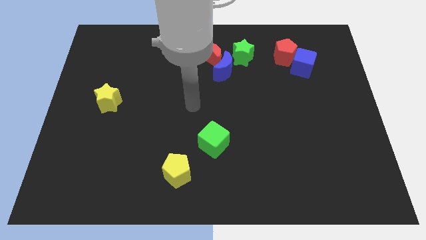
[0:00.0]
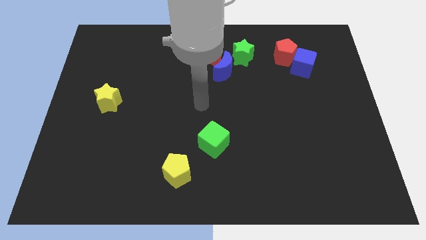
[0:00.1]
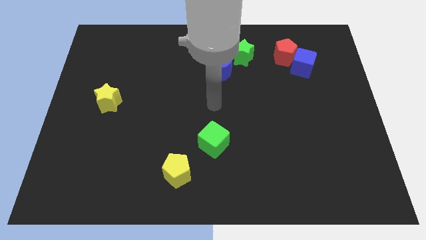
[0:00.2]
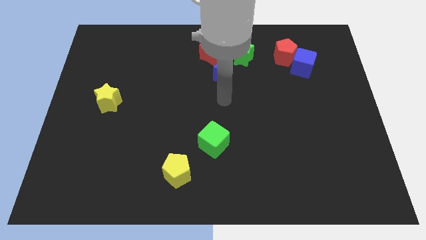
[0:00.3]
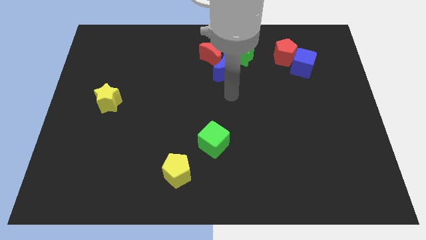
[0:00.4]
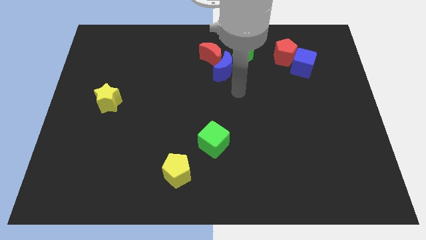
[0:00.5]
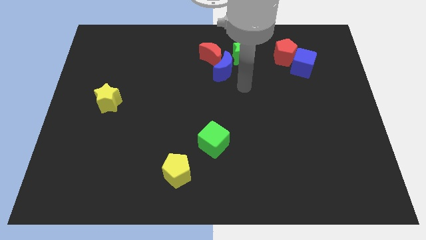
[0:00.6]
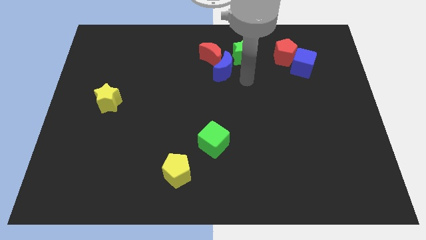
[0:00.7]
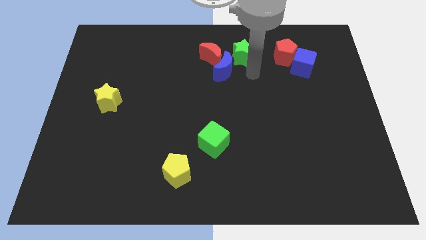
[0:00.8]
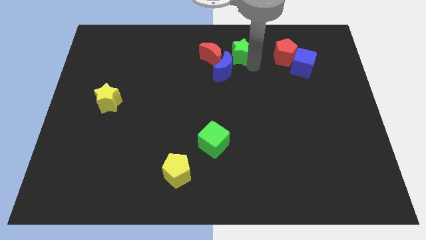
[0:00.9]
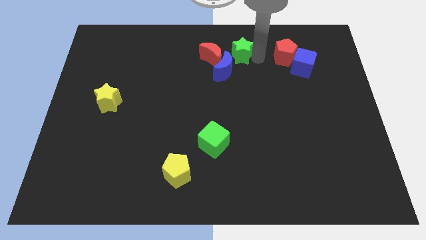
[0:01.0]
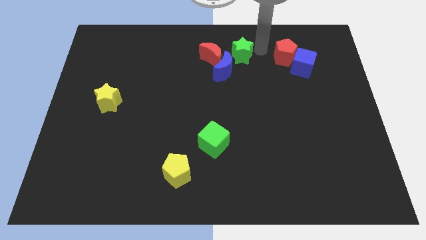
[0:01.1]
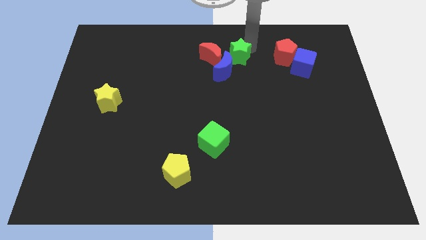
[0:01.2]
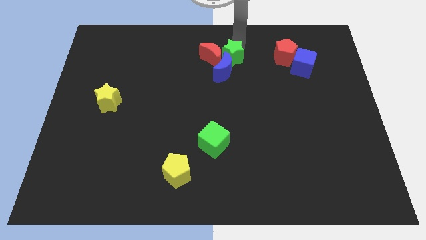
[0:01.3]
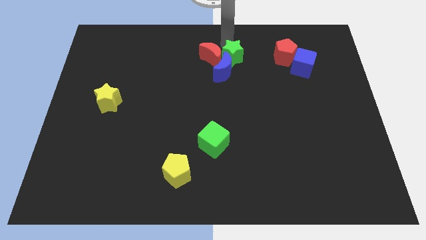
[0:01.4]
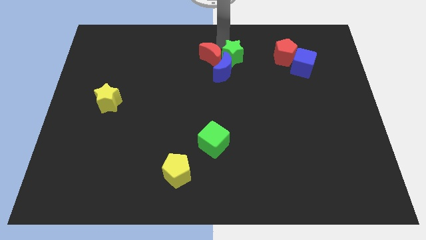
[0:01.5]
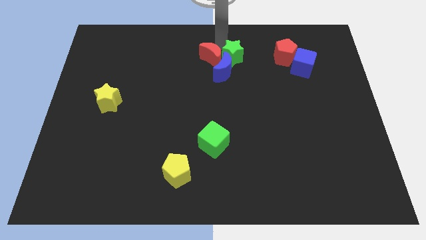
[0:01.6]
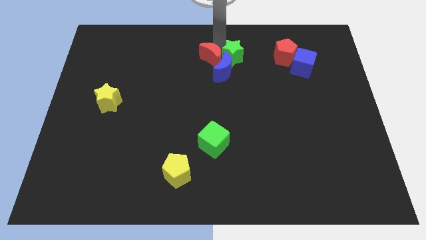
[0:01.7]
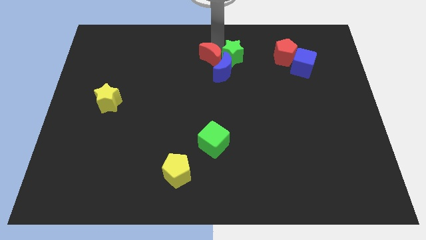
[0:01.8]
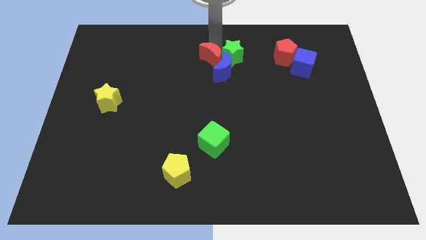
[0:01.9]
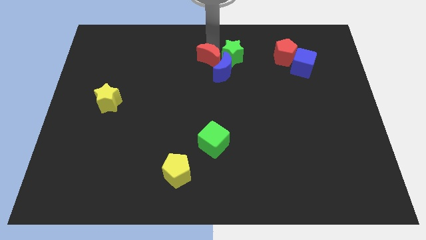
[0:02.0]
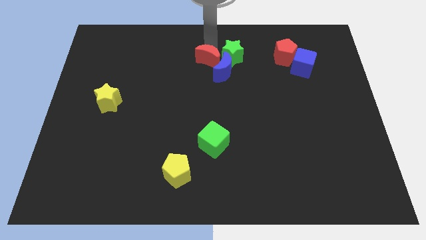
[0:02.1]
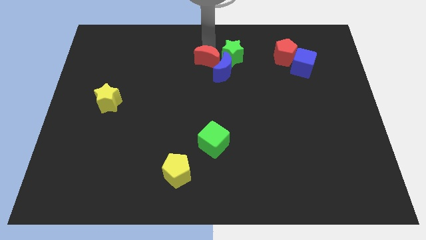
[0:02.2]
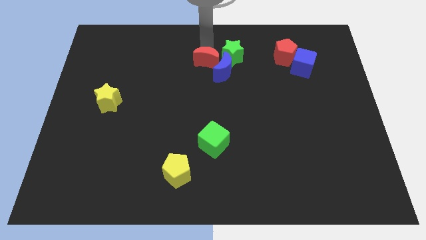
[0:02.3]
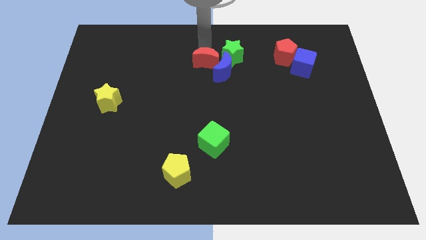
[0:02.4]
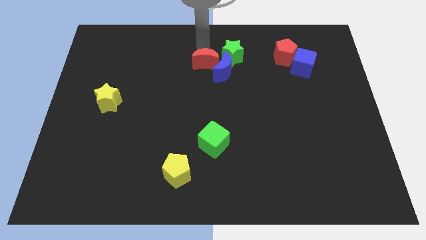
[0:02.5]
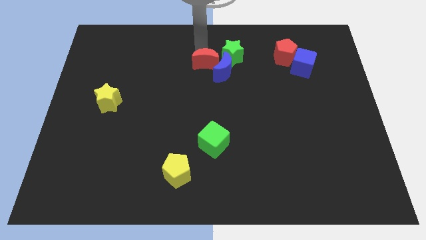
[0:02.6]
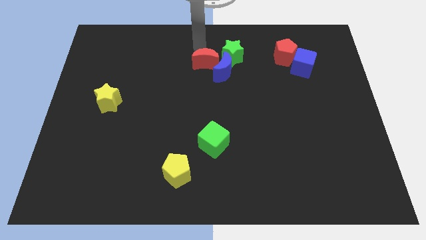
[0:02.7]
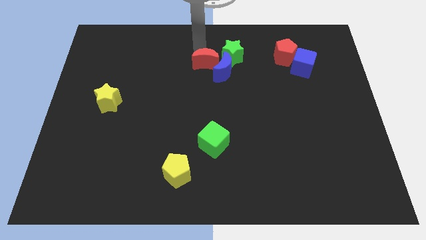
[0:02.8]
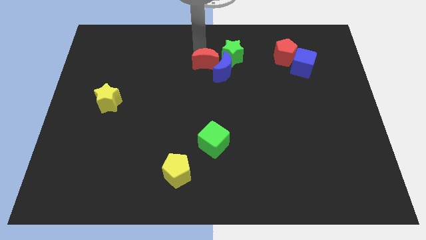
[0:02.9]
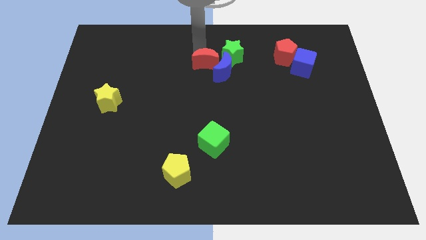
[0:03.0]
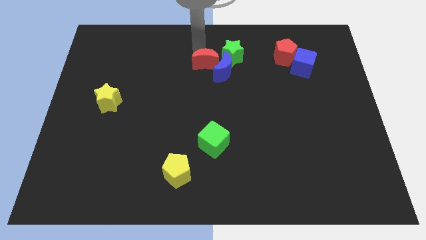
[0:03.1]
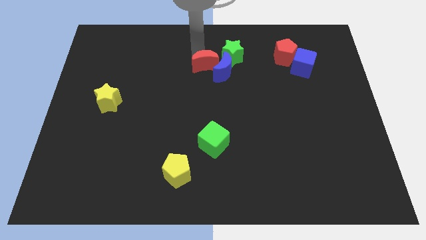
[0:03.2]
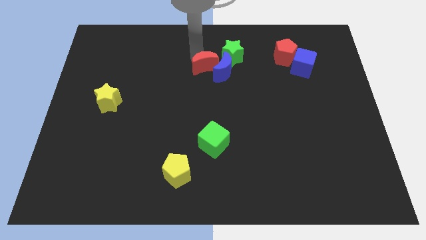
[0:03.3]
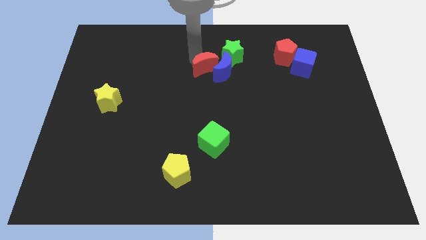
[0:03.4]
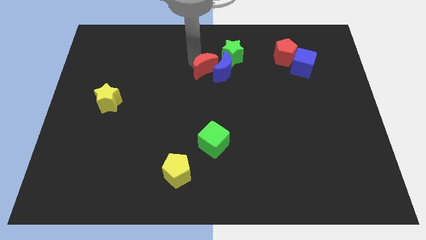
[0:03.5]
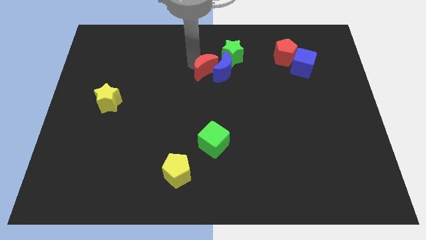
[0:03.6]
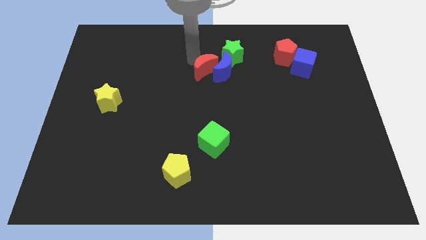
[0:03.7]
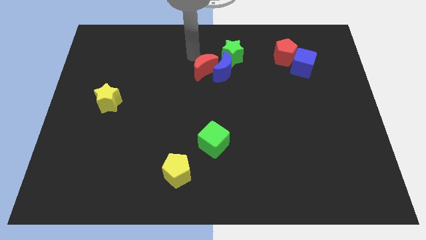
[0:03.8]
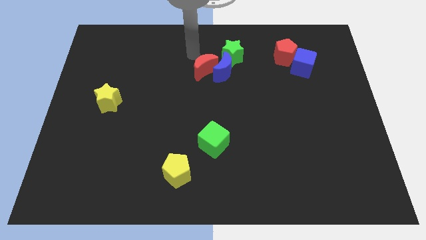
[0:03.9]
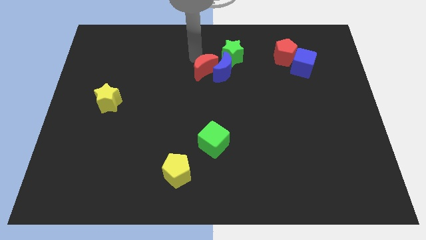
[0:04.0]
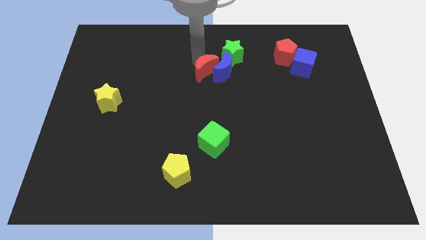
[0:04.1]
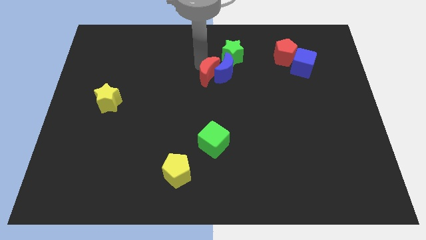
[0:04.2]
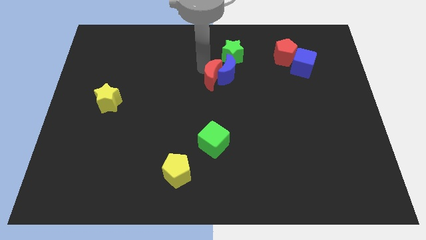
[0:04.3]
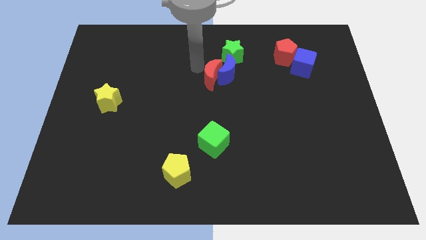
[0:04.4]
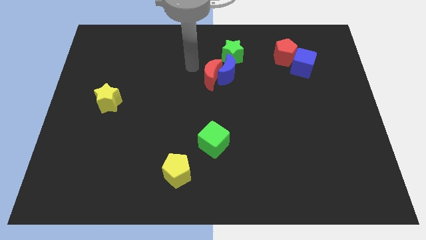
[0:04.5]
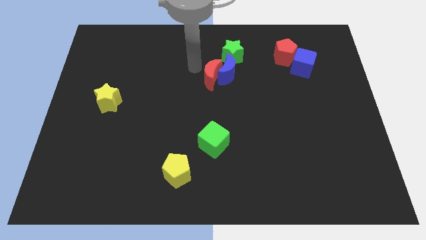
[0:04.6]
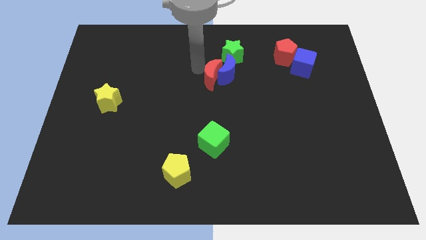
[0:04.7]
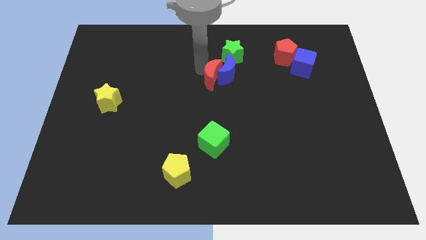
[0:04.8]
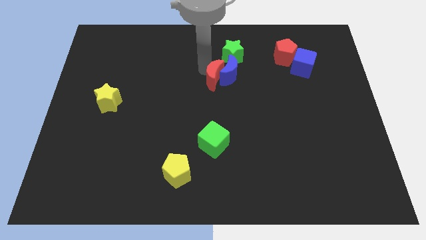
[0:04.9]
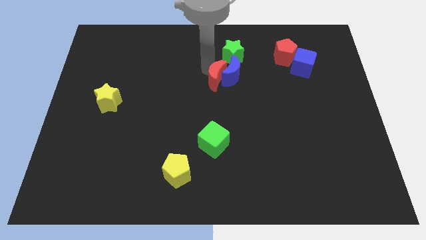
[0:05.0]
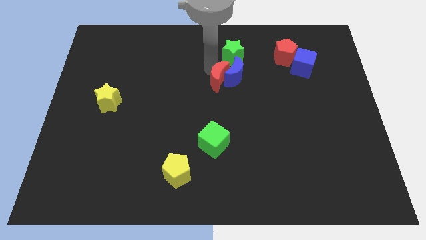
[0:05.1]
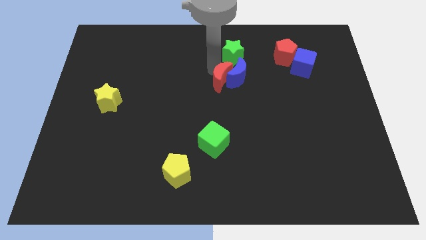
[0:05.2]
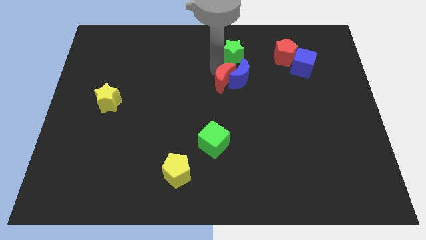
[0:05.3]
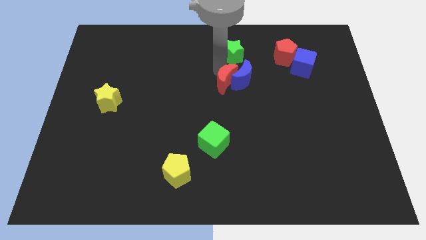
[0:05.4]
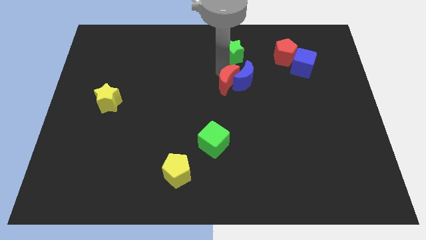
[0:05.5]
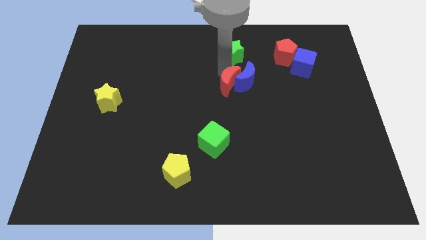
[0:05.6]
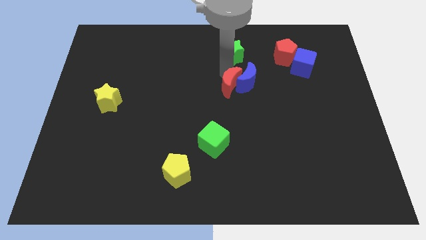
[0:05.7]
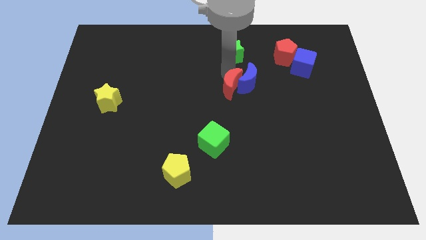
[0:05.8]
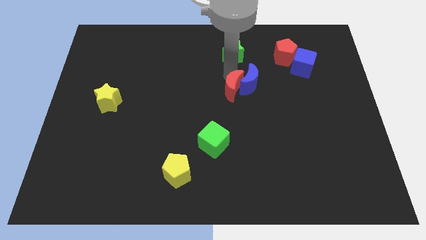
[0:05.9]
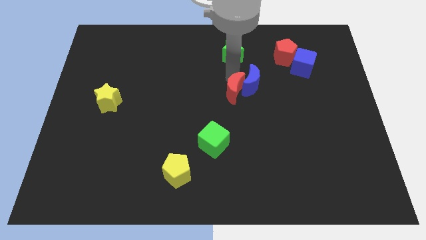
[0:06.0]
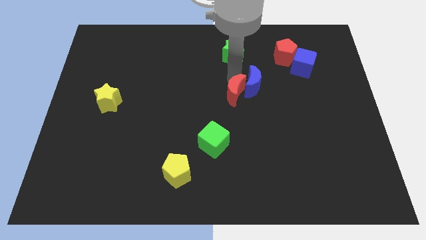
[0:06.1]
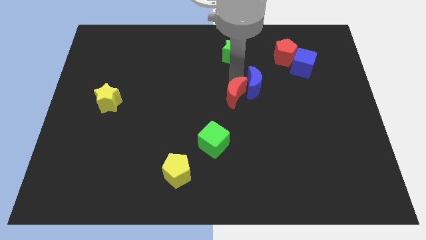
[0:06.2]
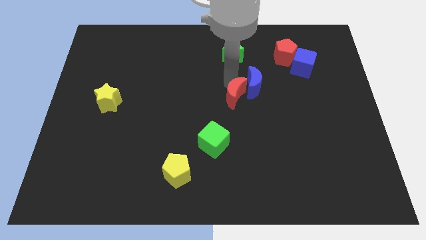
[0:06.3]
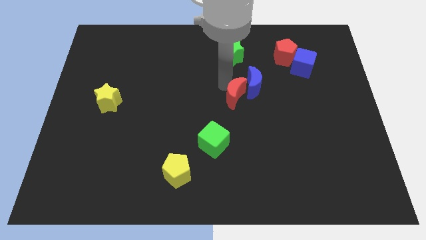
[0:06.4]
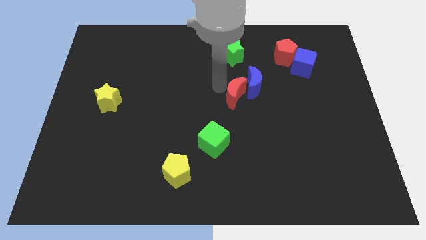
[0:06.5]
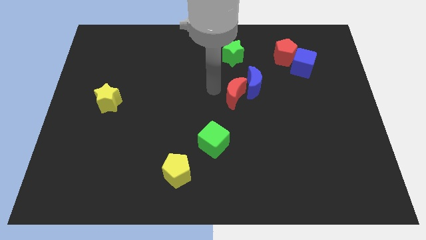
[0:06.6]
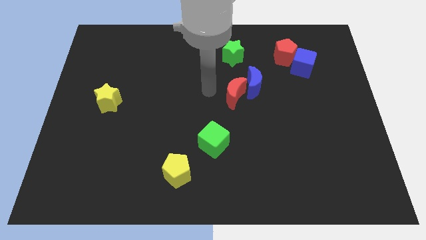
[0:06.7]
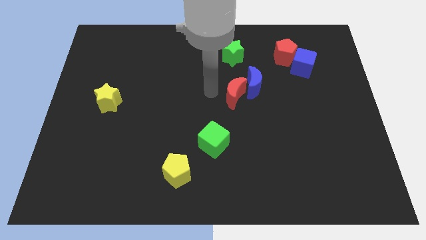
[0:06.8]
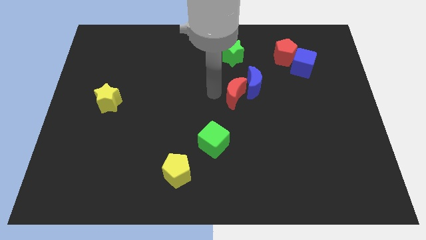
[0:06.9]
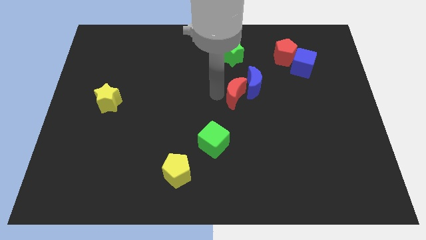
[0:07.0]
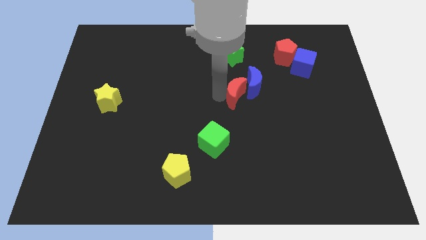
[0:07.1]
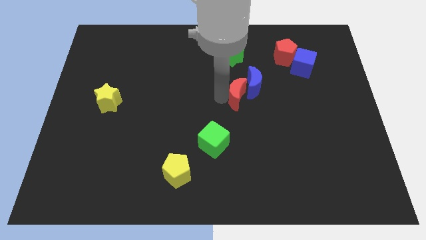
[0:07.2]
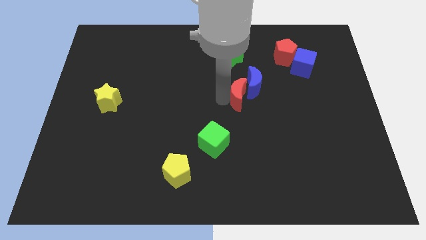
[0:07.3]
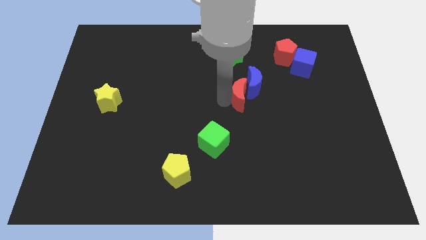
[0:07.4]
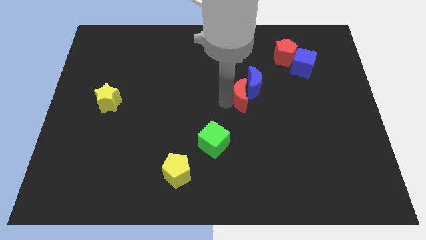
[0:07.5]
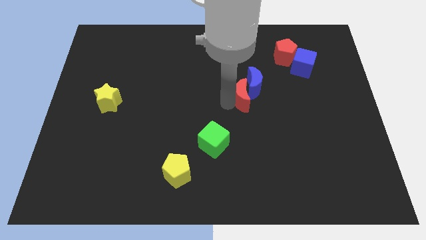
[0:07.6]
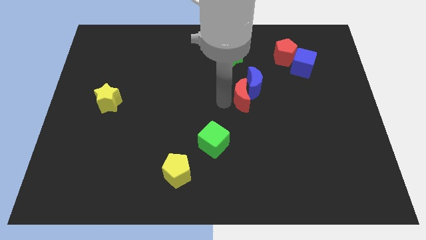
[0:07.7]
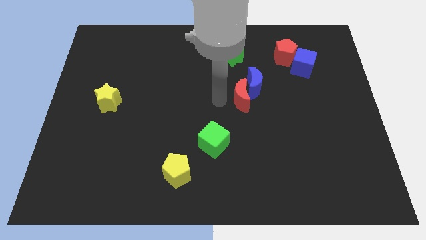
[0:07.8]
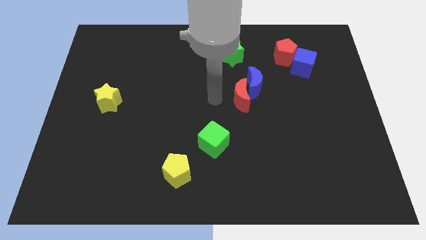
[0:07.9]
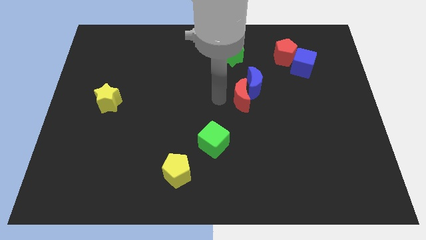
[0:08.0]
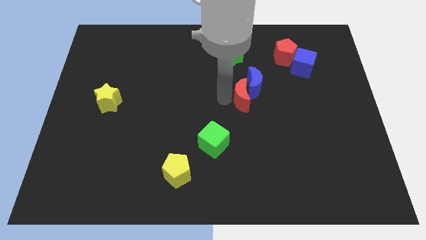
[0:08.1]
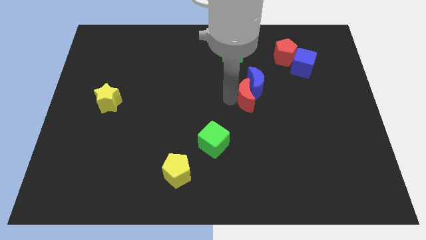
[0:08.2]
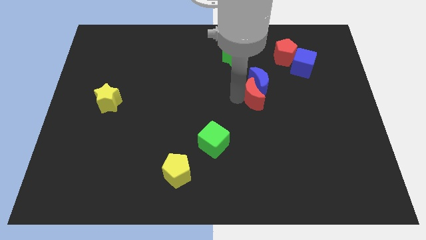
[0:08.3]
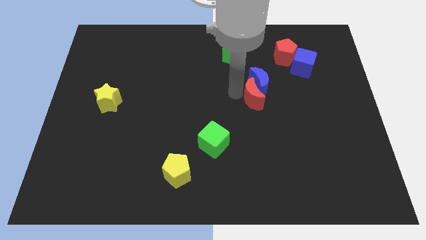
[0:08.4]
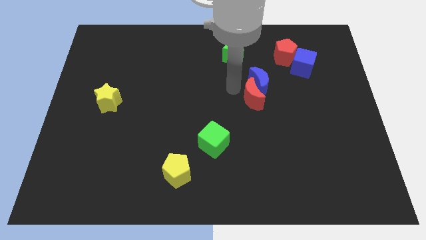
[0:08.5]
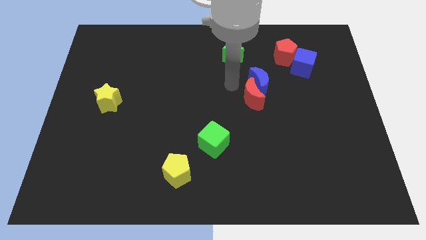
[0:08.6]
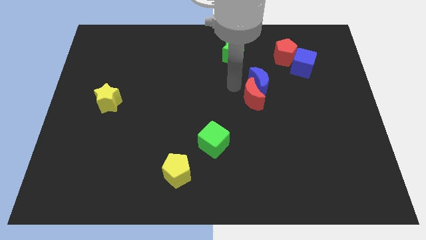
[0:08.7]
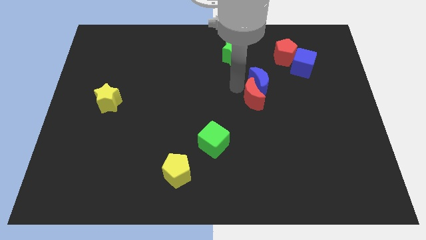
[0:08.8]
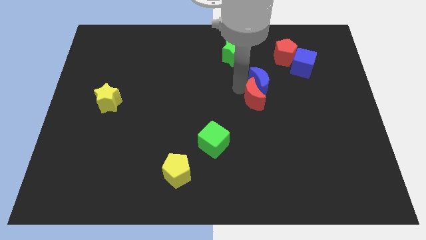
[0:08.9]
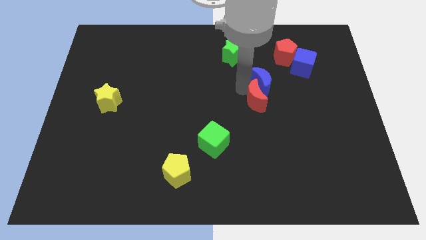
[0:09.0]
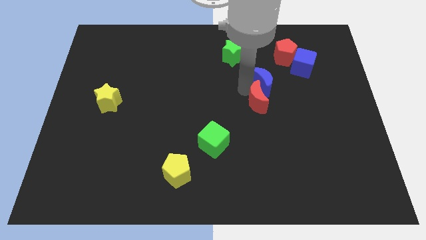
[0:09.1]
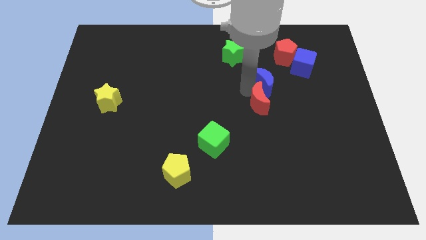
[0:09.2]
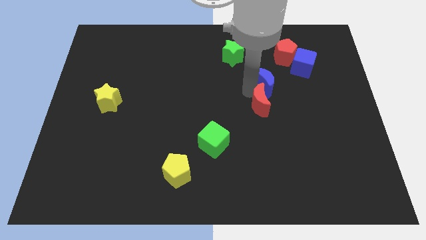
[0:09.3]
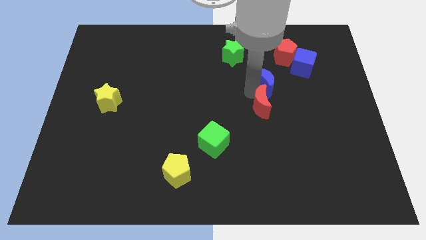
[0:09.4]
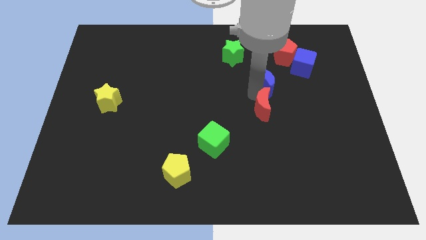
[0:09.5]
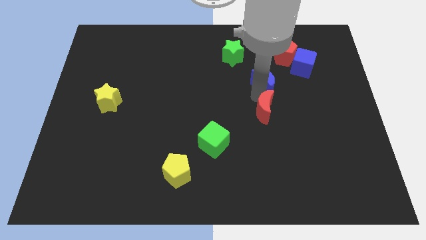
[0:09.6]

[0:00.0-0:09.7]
move the red moon downwards and to the right
